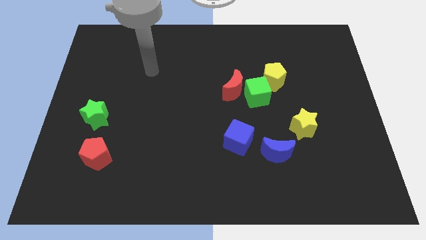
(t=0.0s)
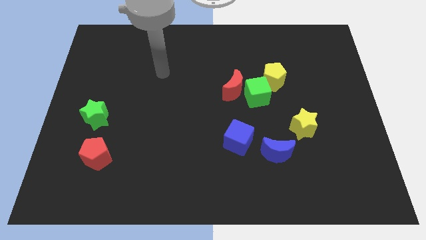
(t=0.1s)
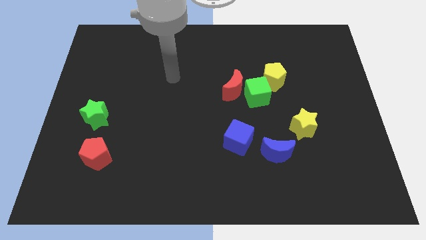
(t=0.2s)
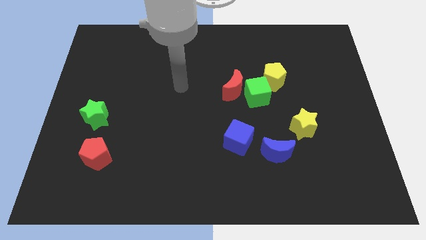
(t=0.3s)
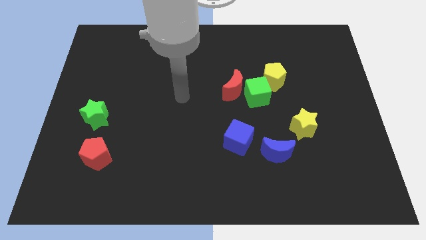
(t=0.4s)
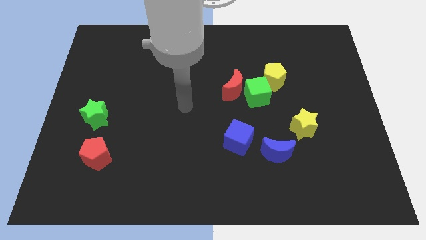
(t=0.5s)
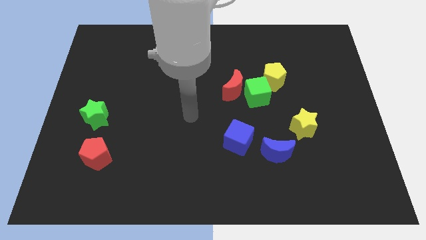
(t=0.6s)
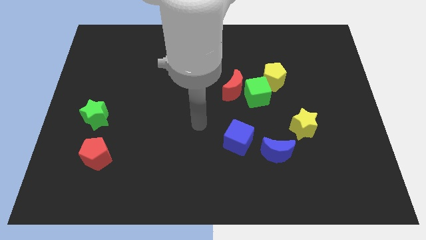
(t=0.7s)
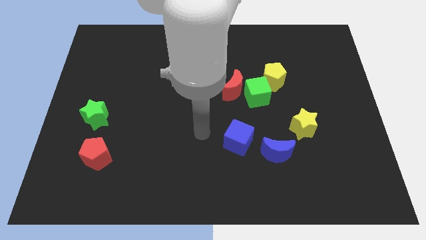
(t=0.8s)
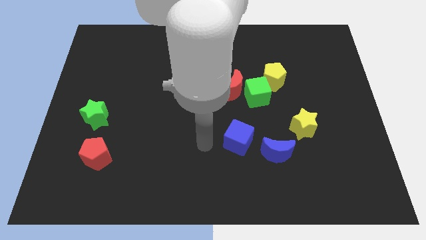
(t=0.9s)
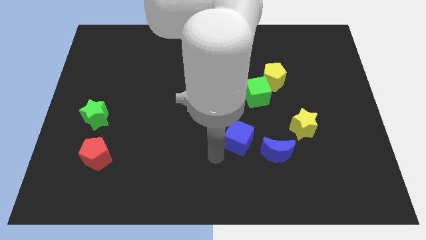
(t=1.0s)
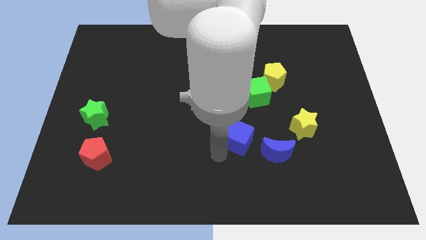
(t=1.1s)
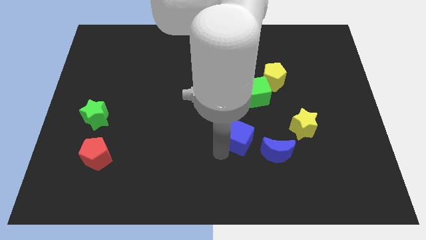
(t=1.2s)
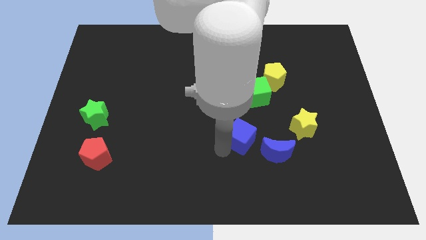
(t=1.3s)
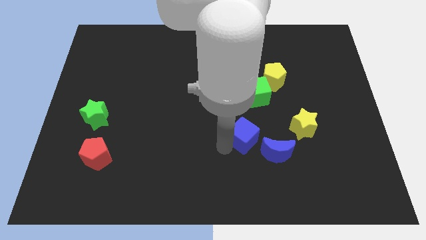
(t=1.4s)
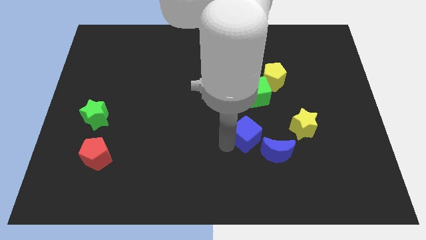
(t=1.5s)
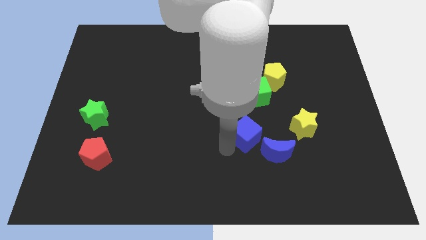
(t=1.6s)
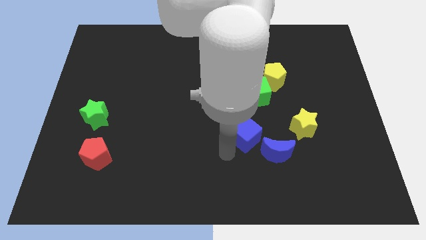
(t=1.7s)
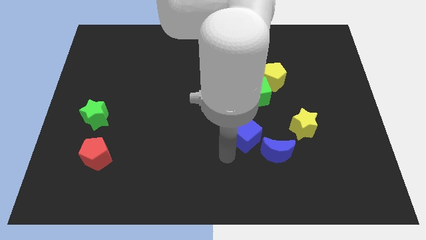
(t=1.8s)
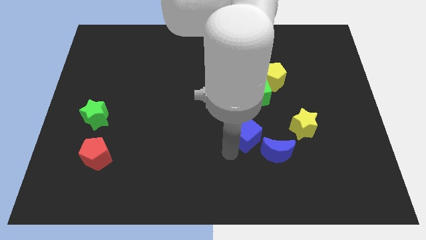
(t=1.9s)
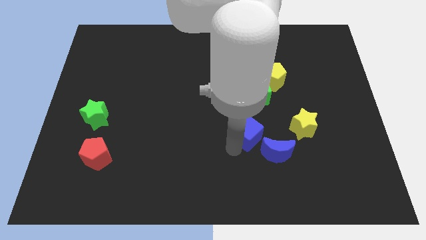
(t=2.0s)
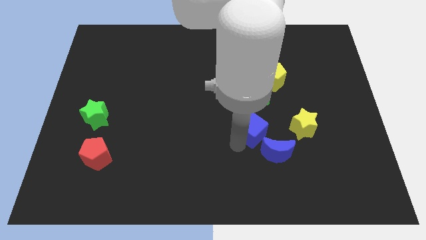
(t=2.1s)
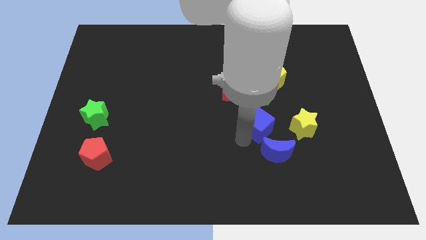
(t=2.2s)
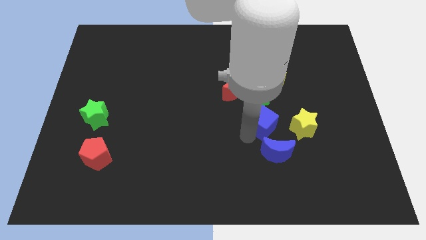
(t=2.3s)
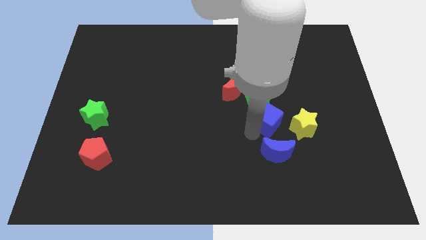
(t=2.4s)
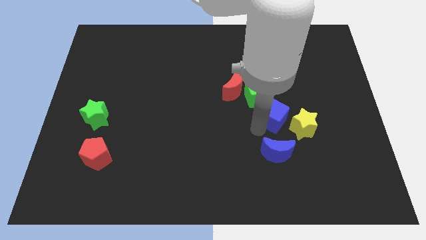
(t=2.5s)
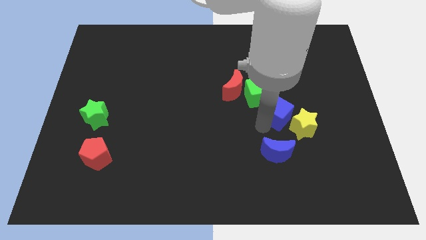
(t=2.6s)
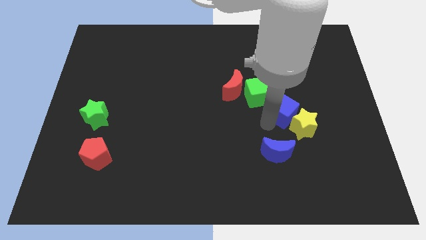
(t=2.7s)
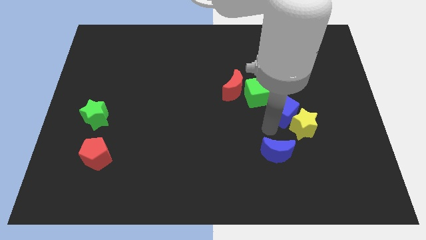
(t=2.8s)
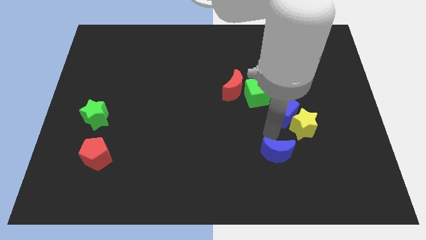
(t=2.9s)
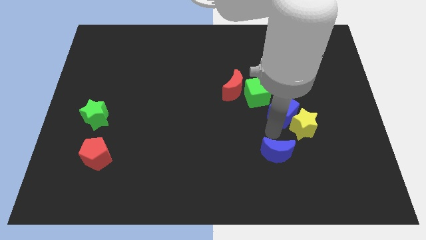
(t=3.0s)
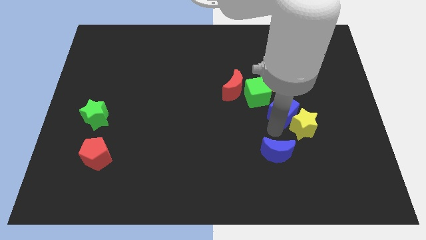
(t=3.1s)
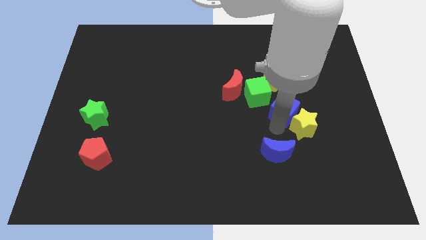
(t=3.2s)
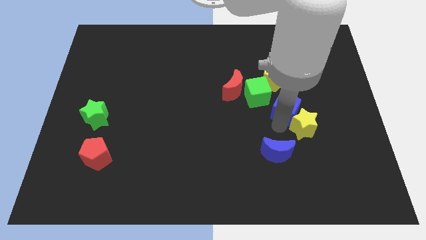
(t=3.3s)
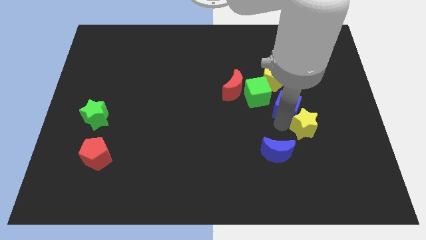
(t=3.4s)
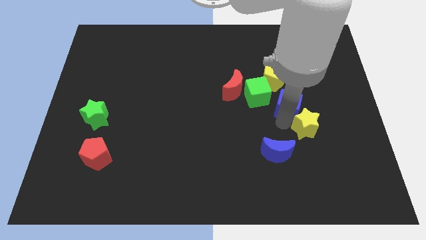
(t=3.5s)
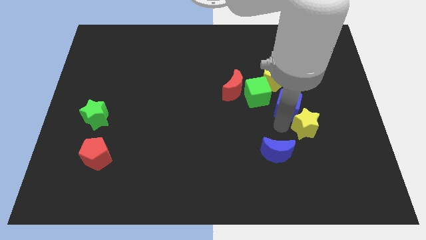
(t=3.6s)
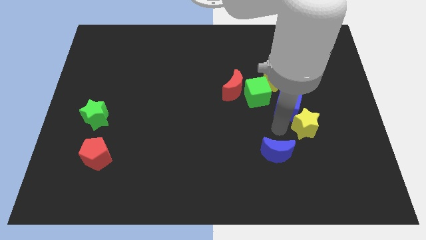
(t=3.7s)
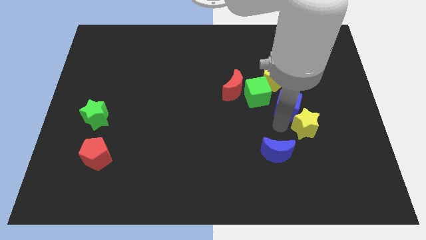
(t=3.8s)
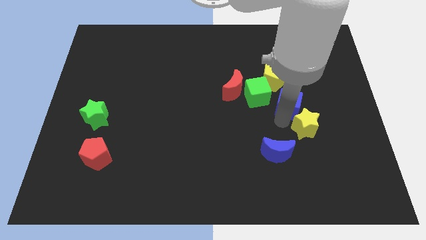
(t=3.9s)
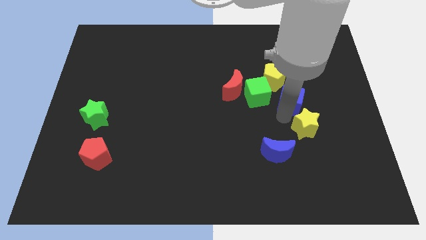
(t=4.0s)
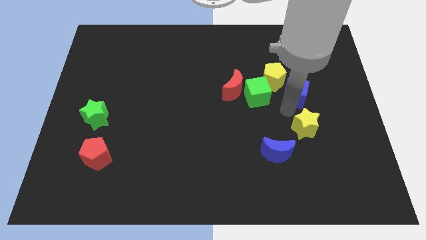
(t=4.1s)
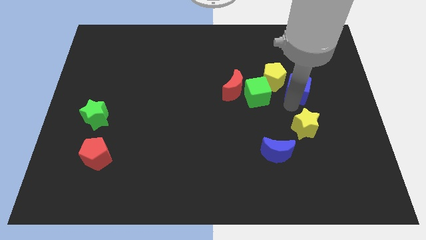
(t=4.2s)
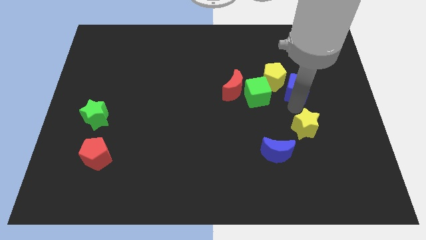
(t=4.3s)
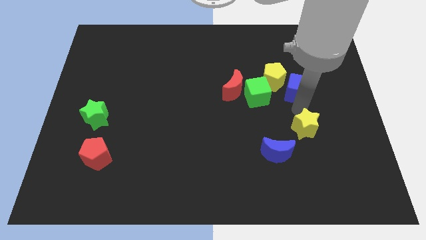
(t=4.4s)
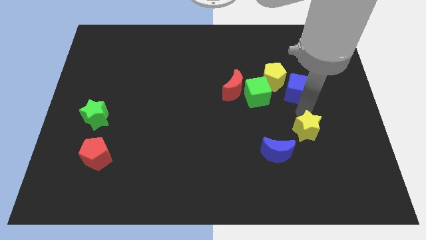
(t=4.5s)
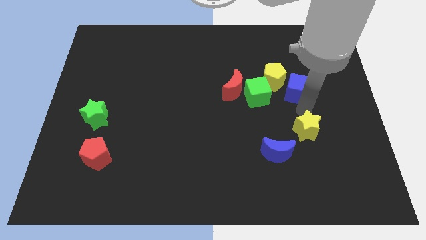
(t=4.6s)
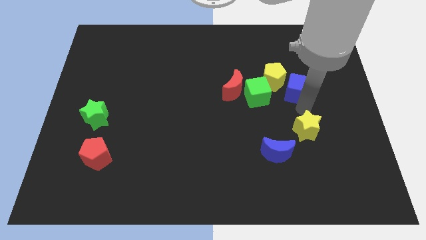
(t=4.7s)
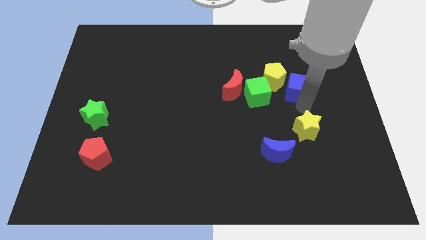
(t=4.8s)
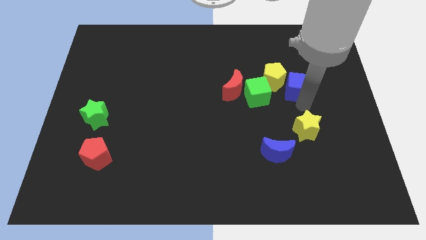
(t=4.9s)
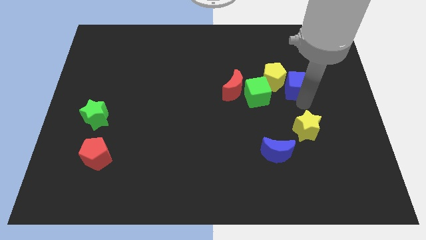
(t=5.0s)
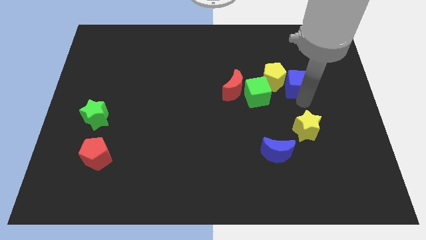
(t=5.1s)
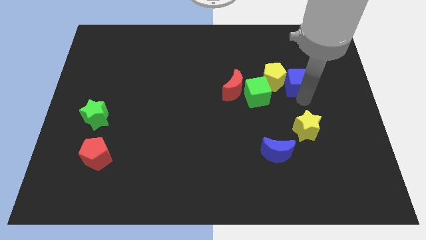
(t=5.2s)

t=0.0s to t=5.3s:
push the blue cube to the top right of the green cube

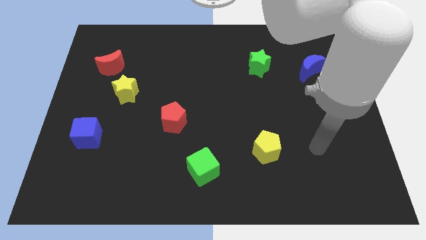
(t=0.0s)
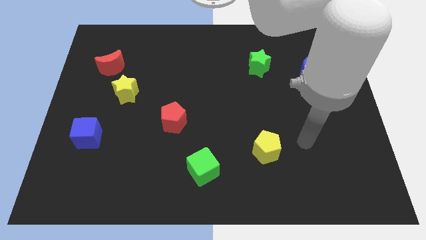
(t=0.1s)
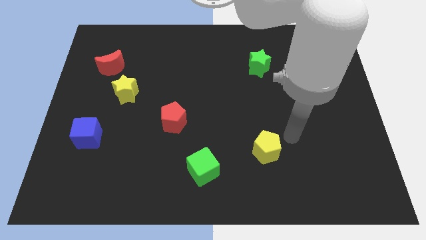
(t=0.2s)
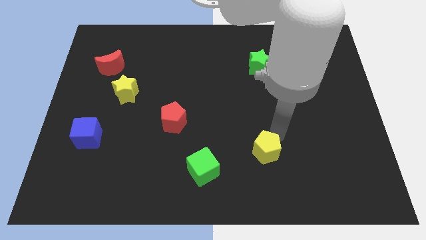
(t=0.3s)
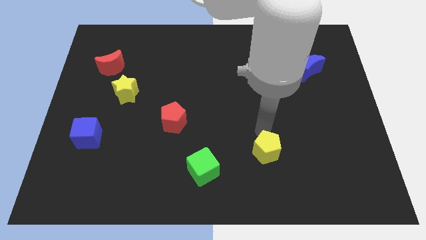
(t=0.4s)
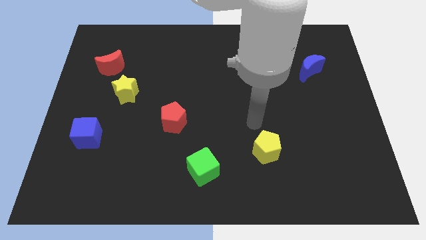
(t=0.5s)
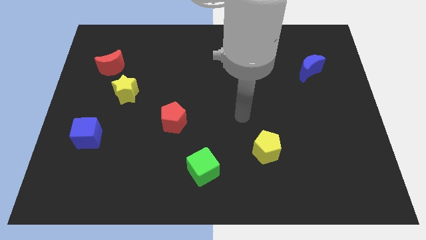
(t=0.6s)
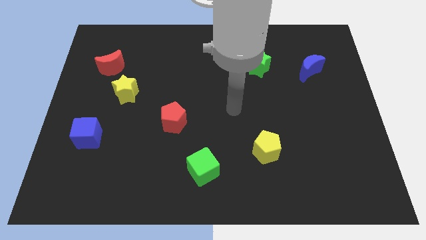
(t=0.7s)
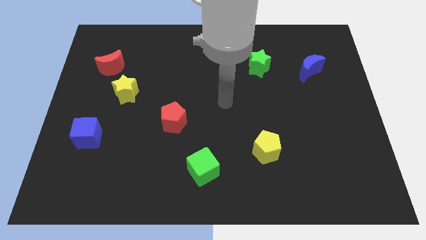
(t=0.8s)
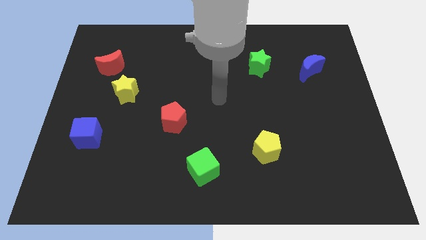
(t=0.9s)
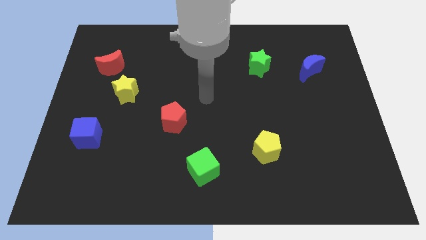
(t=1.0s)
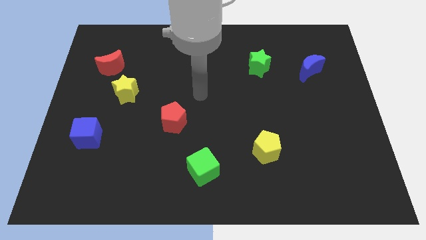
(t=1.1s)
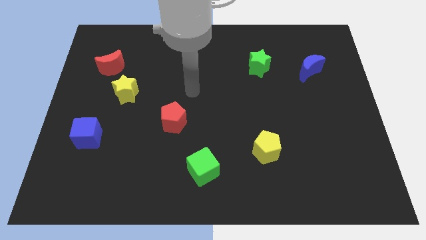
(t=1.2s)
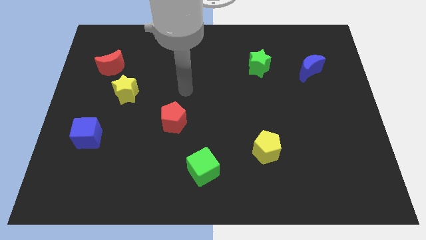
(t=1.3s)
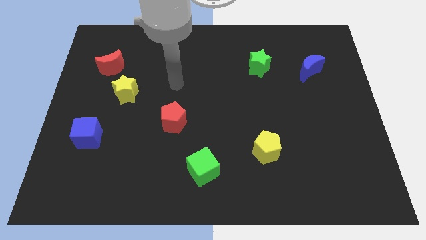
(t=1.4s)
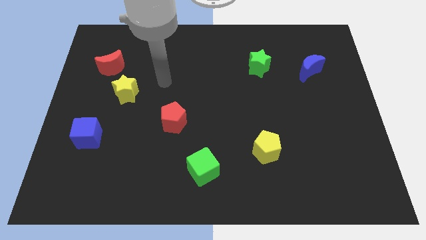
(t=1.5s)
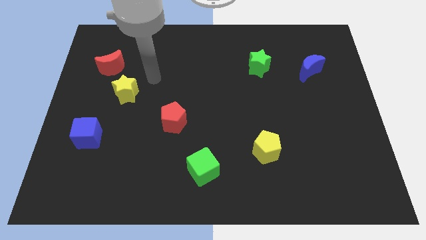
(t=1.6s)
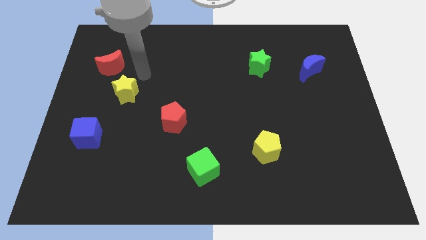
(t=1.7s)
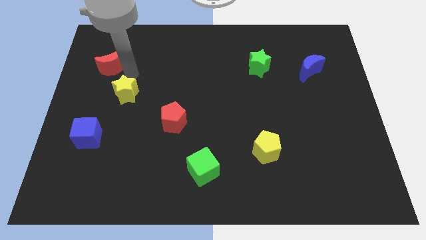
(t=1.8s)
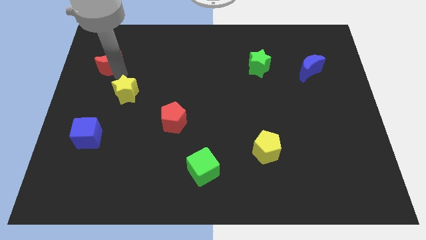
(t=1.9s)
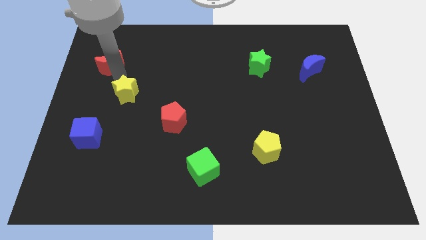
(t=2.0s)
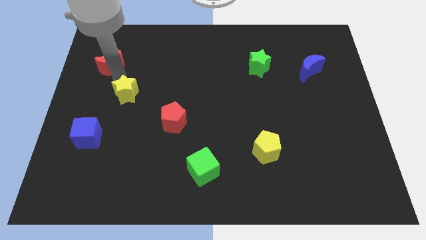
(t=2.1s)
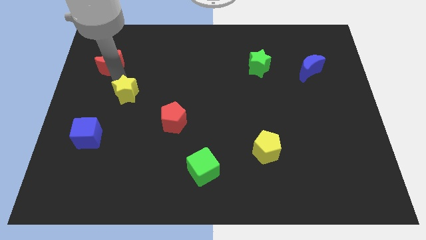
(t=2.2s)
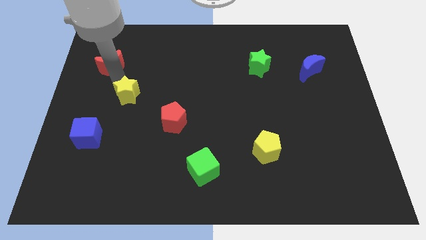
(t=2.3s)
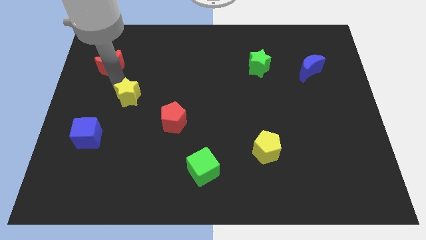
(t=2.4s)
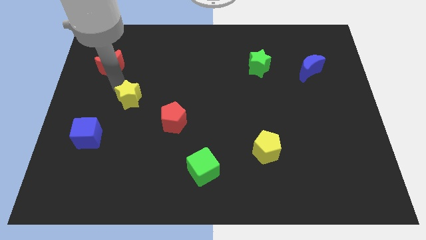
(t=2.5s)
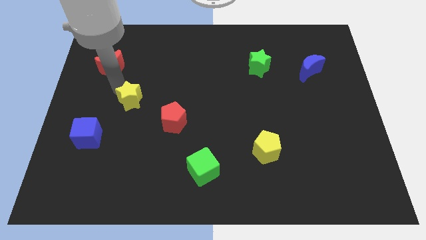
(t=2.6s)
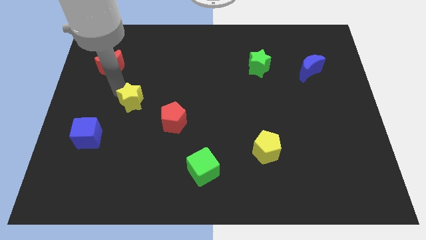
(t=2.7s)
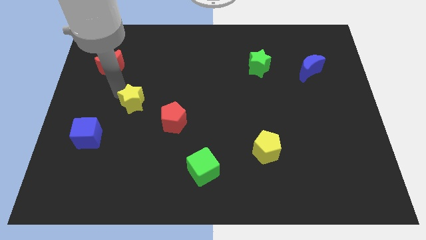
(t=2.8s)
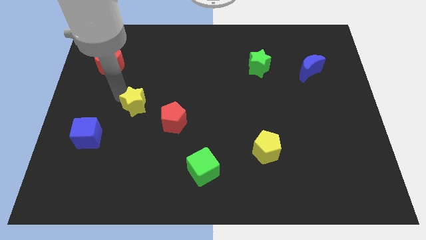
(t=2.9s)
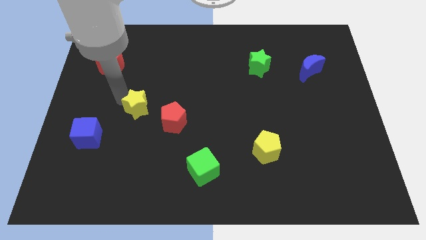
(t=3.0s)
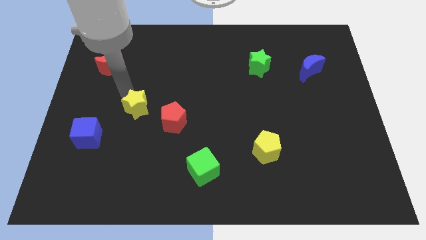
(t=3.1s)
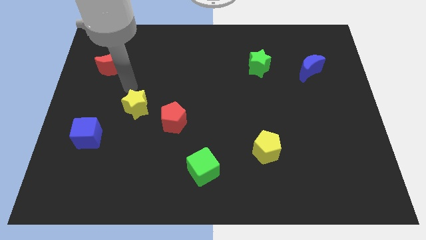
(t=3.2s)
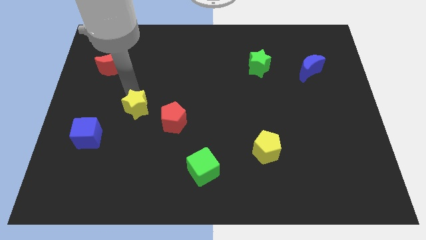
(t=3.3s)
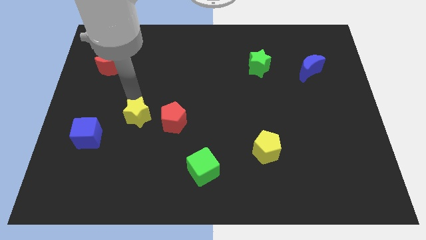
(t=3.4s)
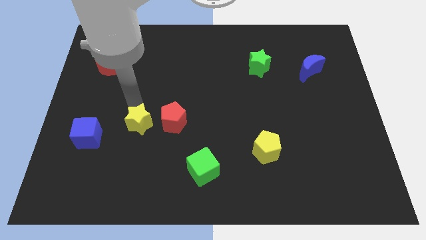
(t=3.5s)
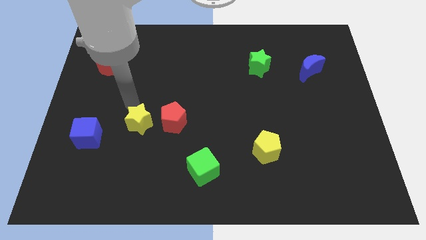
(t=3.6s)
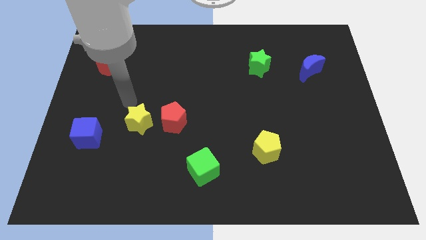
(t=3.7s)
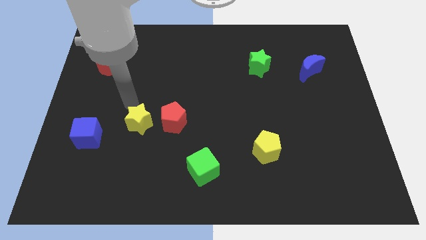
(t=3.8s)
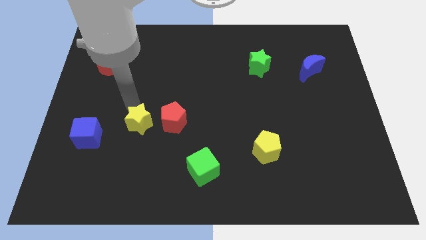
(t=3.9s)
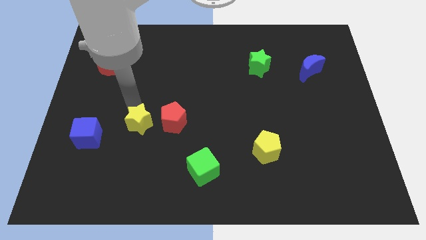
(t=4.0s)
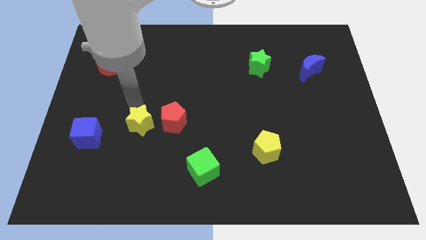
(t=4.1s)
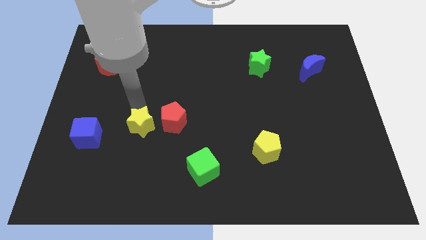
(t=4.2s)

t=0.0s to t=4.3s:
put the yellow star diagonally down and to the left of the red pentagon
